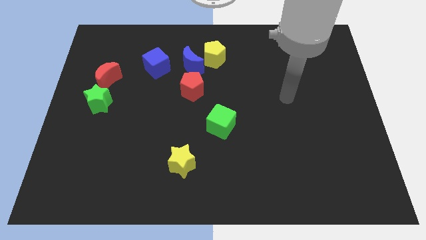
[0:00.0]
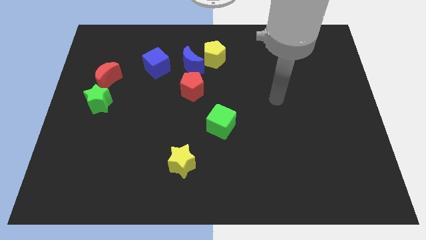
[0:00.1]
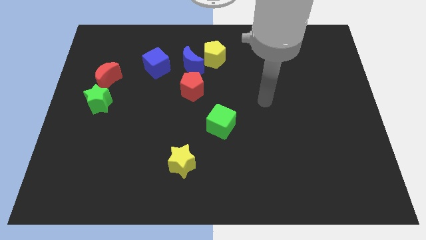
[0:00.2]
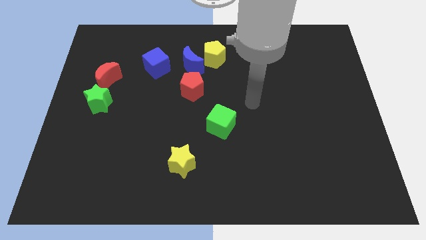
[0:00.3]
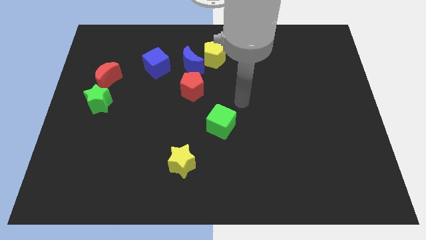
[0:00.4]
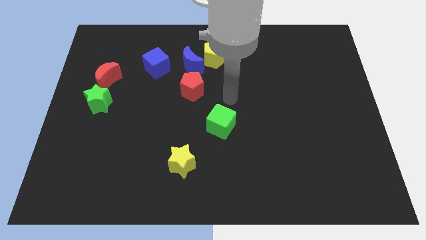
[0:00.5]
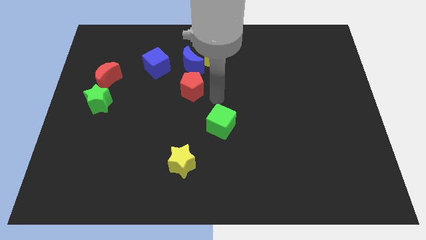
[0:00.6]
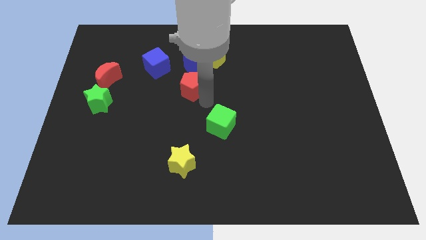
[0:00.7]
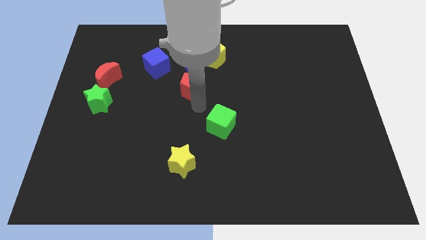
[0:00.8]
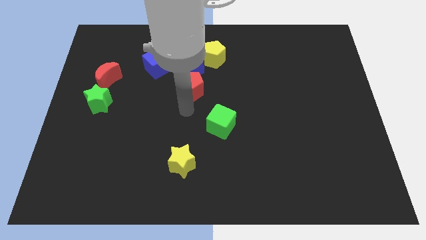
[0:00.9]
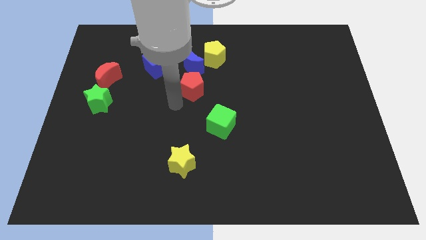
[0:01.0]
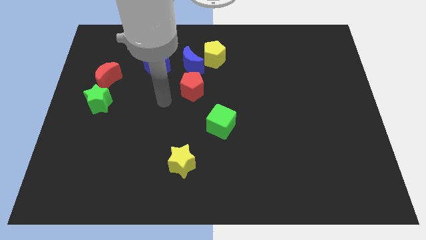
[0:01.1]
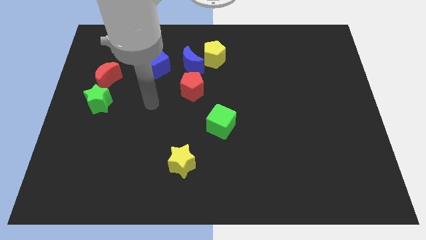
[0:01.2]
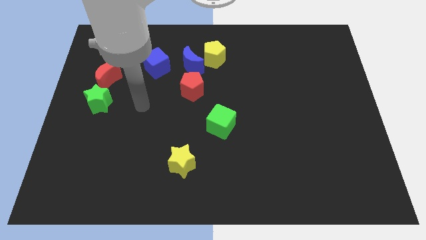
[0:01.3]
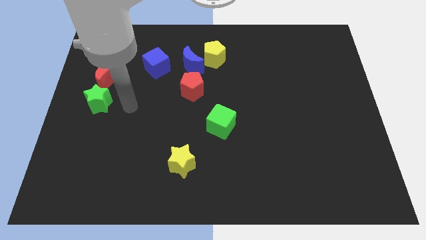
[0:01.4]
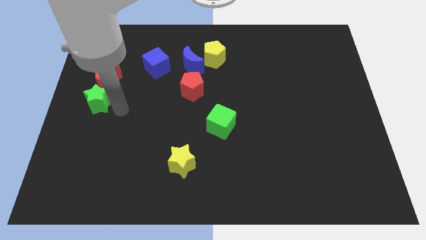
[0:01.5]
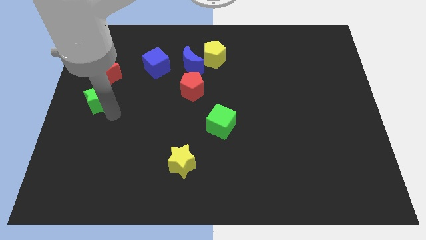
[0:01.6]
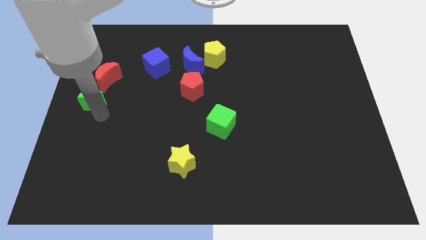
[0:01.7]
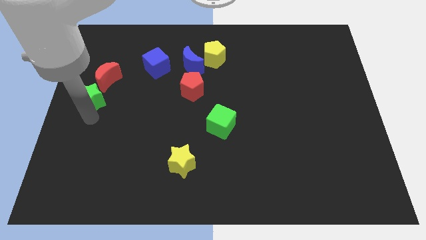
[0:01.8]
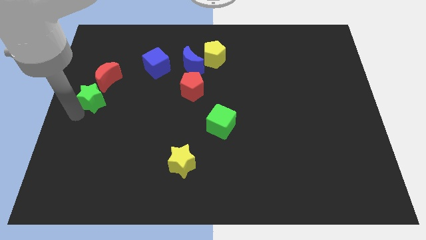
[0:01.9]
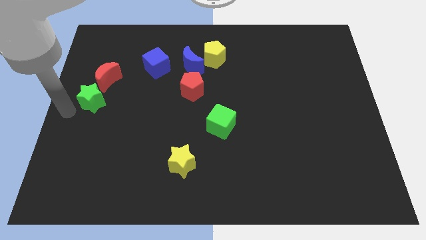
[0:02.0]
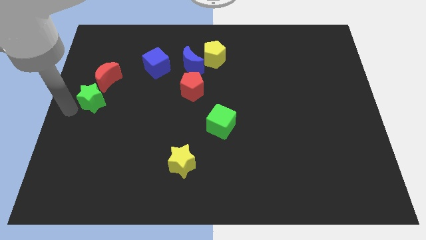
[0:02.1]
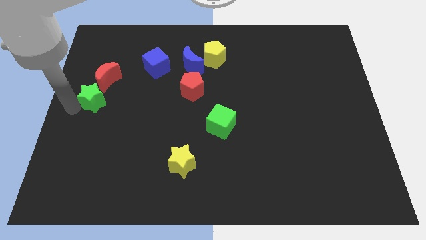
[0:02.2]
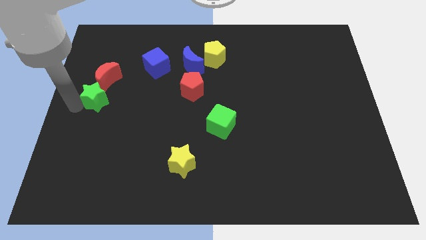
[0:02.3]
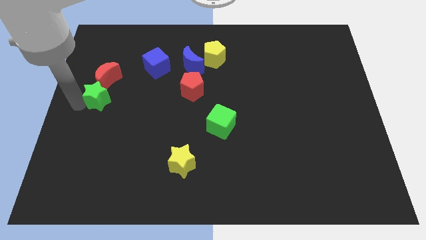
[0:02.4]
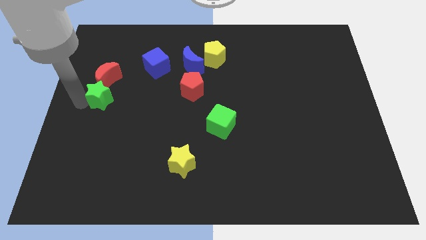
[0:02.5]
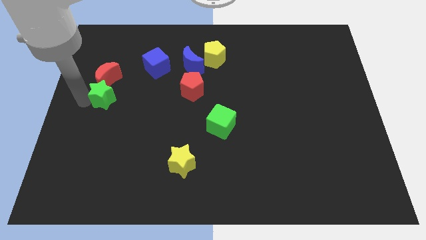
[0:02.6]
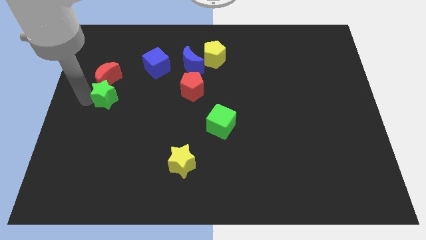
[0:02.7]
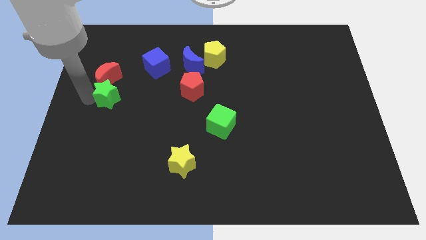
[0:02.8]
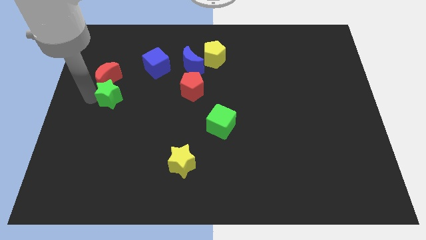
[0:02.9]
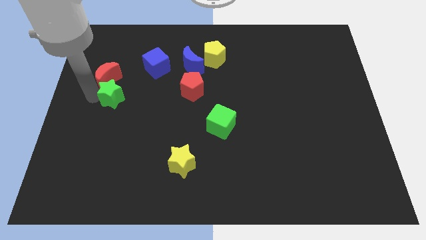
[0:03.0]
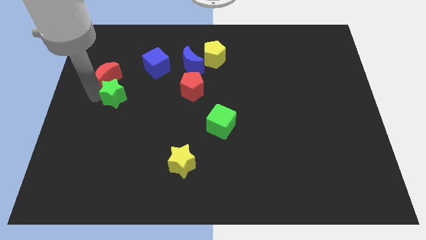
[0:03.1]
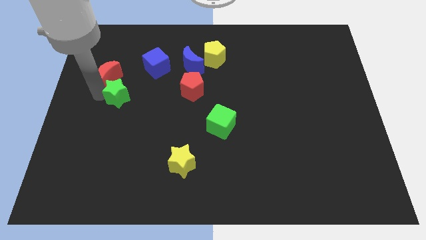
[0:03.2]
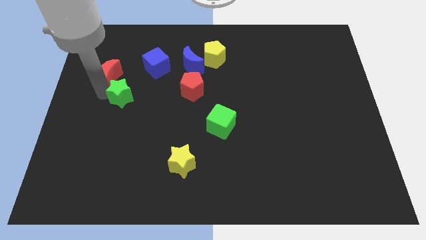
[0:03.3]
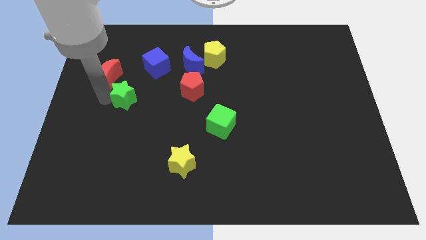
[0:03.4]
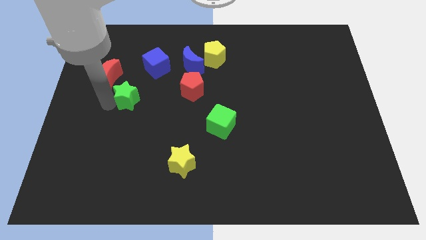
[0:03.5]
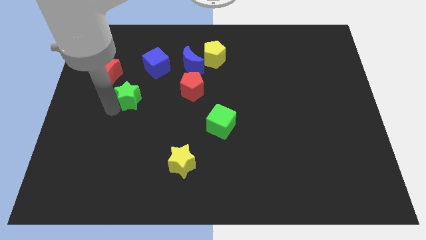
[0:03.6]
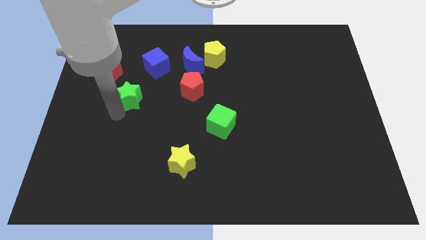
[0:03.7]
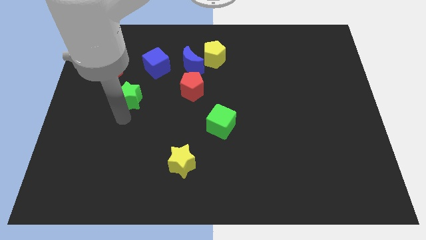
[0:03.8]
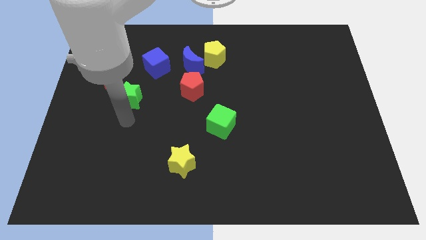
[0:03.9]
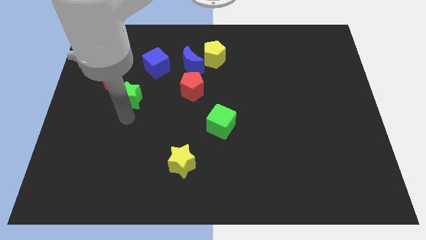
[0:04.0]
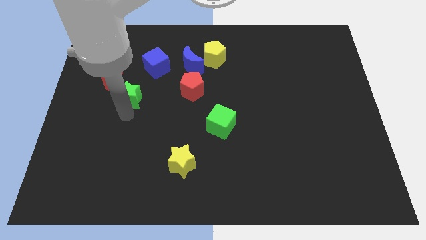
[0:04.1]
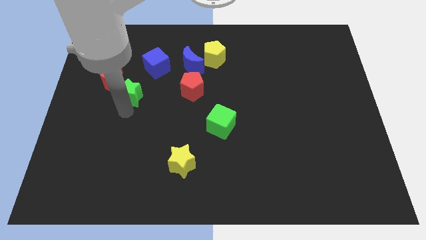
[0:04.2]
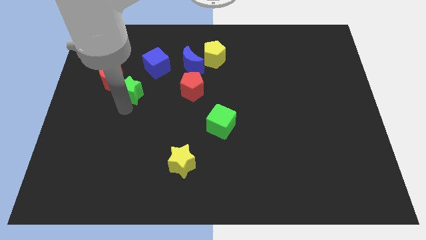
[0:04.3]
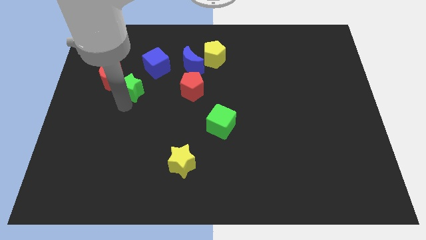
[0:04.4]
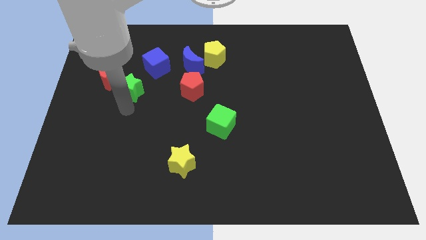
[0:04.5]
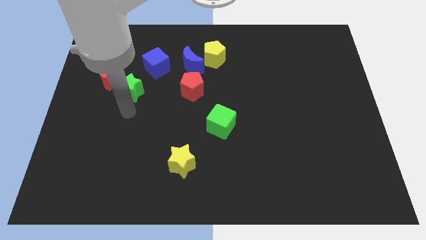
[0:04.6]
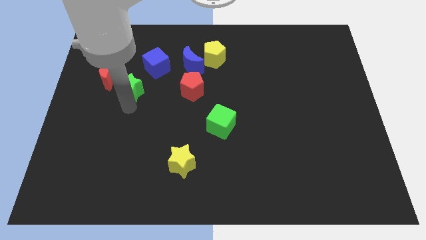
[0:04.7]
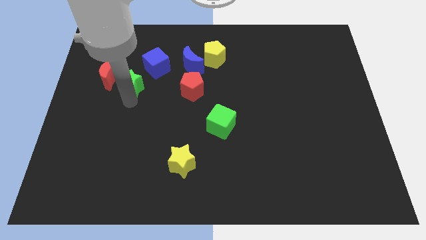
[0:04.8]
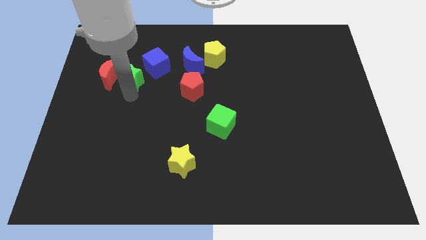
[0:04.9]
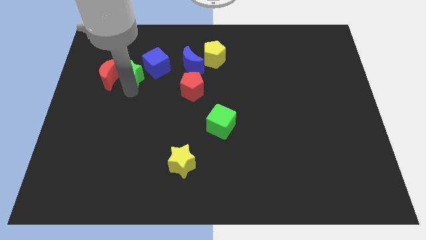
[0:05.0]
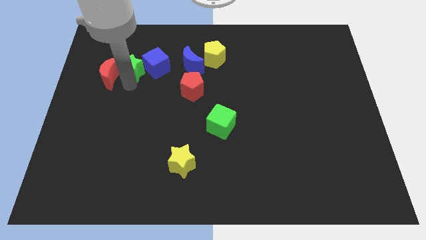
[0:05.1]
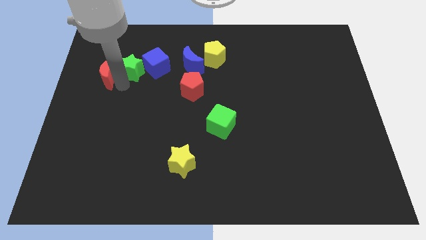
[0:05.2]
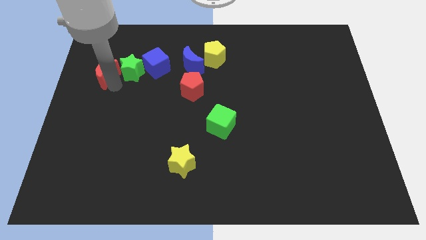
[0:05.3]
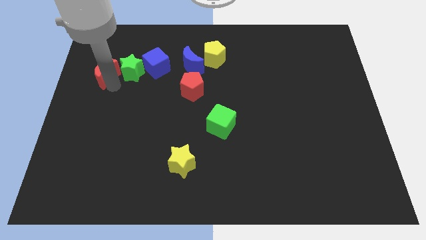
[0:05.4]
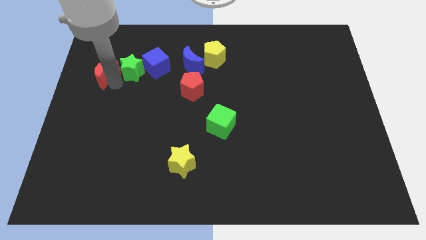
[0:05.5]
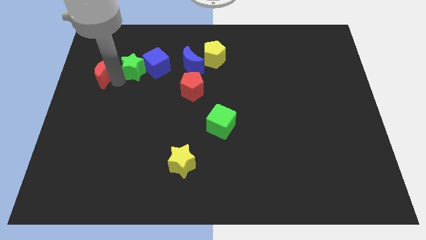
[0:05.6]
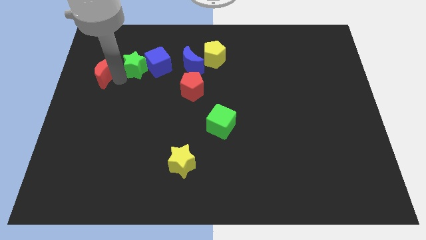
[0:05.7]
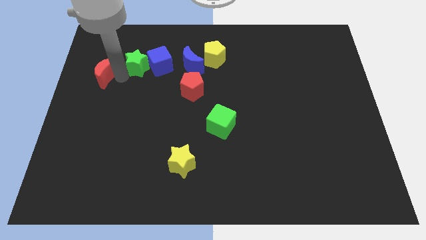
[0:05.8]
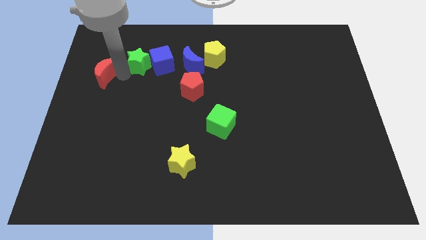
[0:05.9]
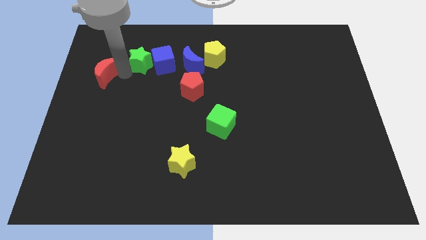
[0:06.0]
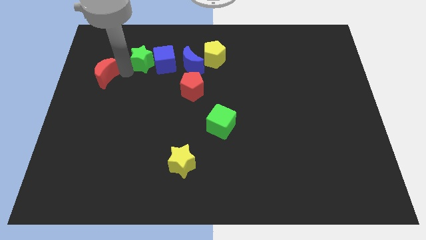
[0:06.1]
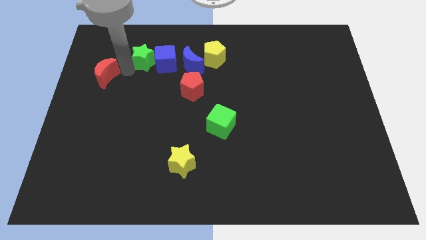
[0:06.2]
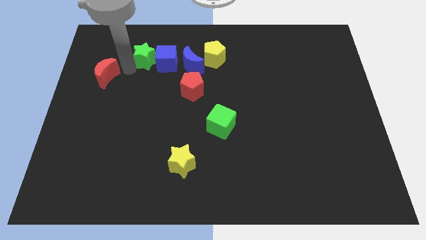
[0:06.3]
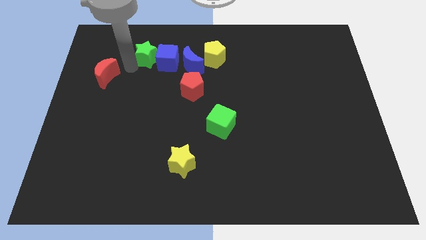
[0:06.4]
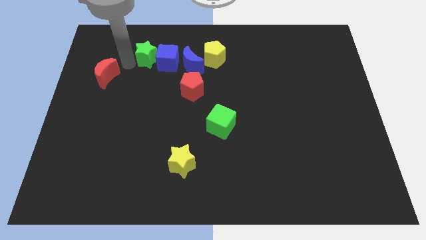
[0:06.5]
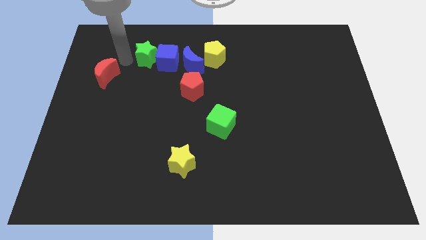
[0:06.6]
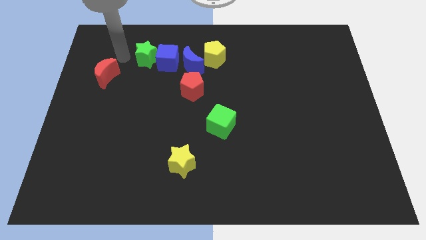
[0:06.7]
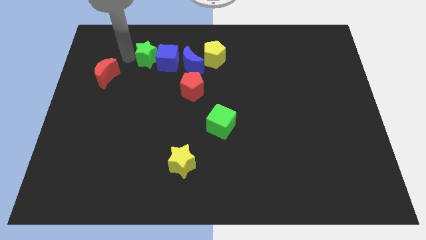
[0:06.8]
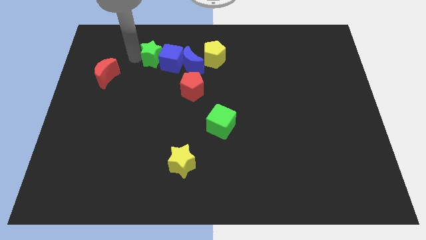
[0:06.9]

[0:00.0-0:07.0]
put the green star left of the yellow pentagon
